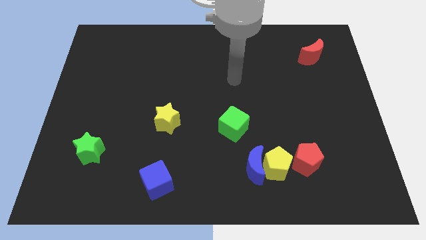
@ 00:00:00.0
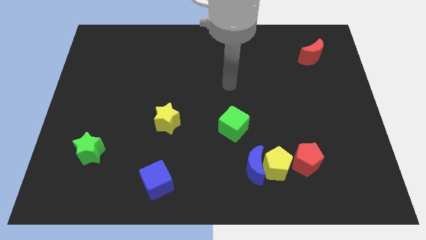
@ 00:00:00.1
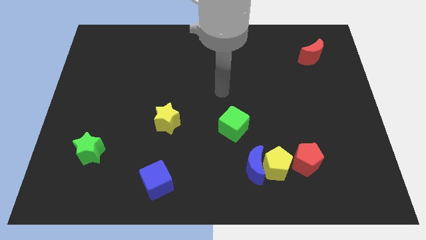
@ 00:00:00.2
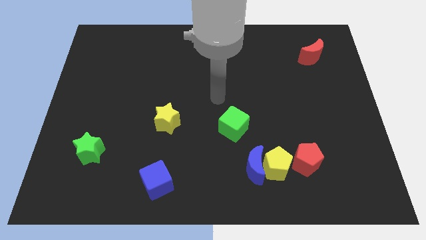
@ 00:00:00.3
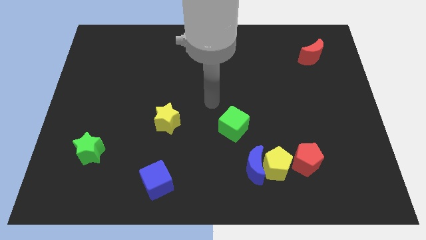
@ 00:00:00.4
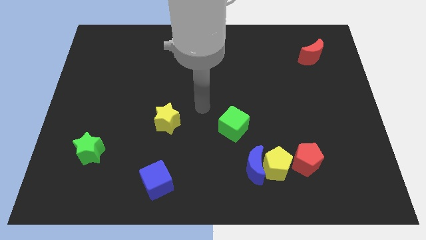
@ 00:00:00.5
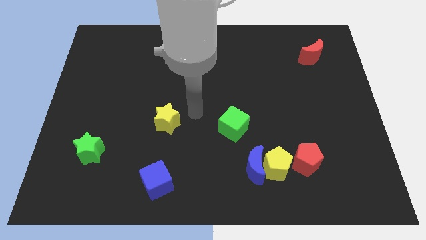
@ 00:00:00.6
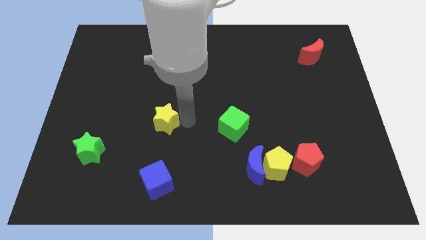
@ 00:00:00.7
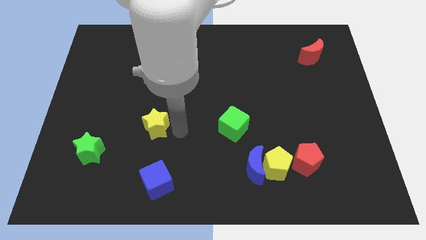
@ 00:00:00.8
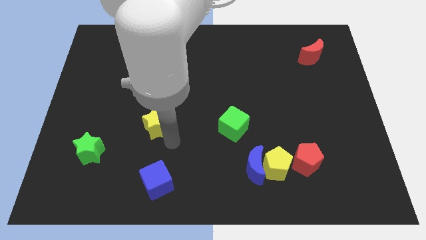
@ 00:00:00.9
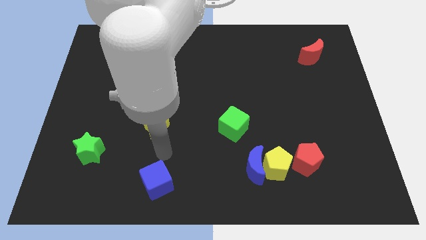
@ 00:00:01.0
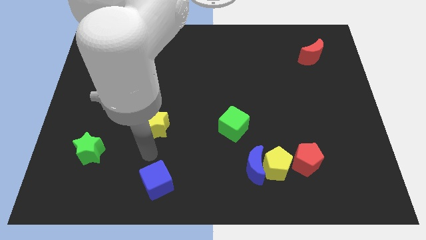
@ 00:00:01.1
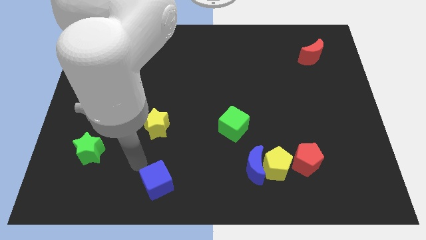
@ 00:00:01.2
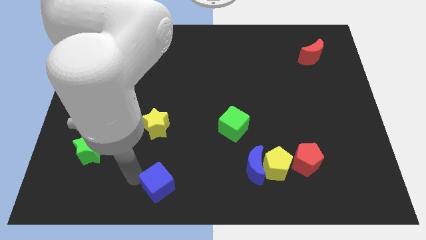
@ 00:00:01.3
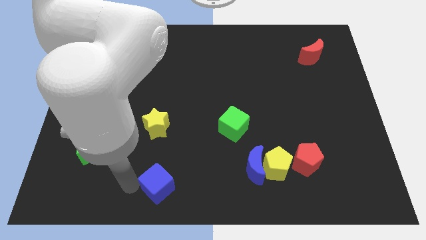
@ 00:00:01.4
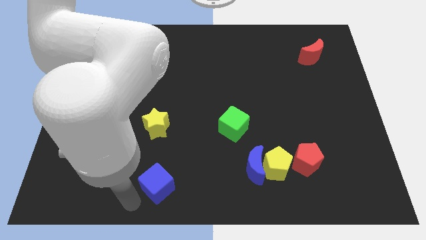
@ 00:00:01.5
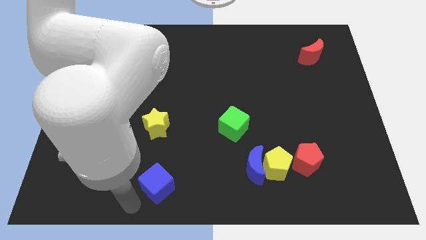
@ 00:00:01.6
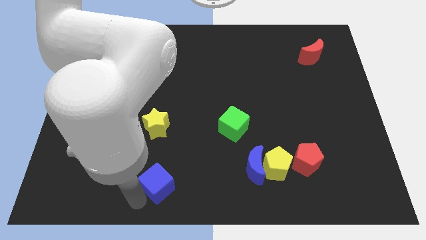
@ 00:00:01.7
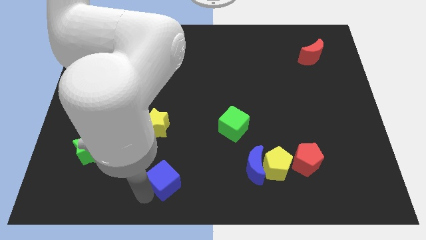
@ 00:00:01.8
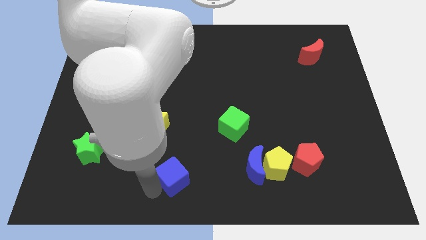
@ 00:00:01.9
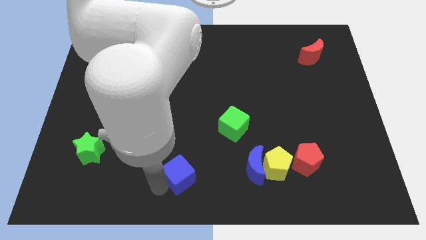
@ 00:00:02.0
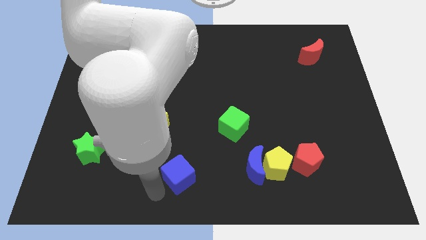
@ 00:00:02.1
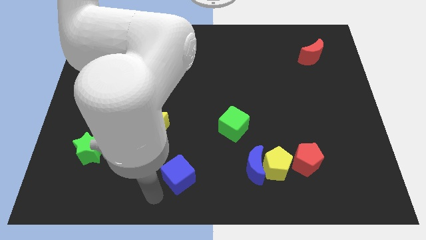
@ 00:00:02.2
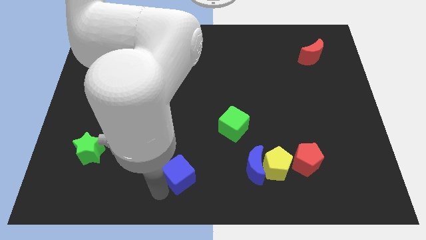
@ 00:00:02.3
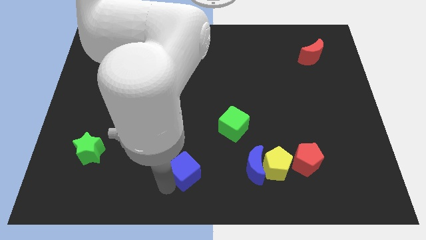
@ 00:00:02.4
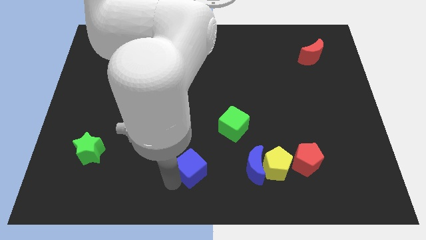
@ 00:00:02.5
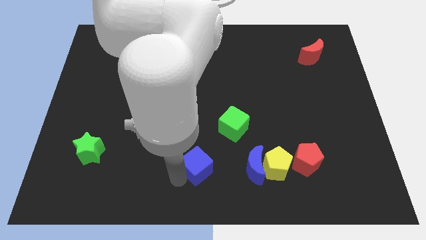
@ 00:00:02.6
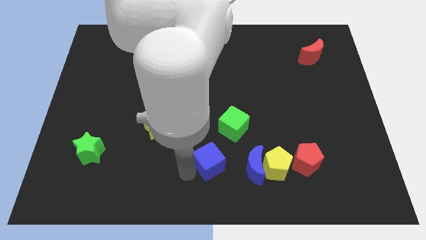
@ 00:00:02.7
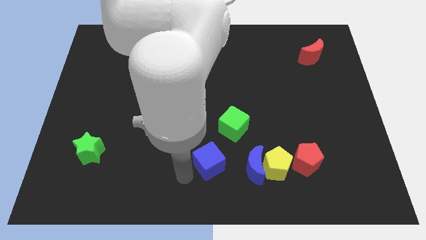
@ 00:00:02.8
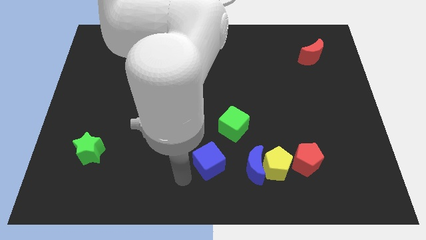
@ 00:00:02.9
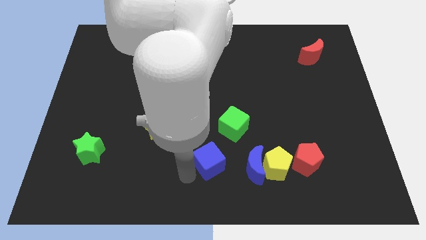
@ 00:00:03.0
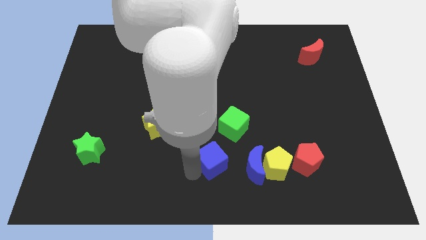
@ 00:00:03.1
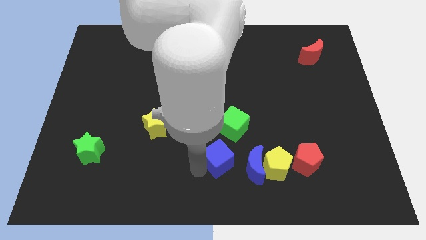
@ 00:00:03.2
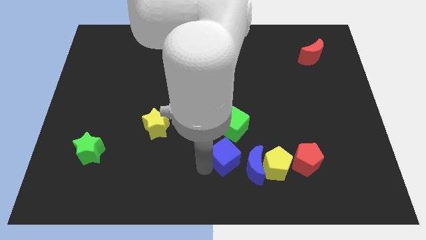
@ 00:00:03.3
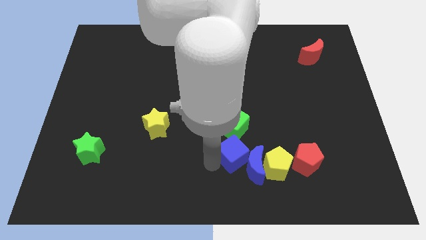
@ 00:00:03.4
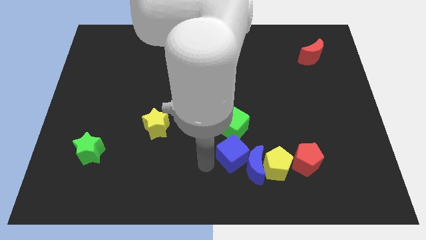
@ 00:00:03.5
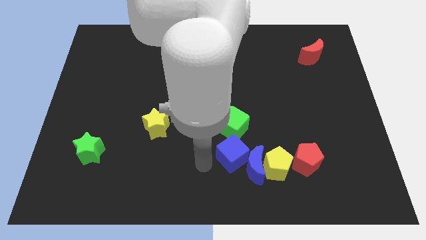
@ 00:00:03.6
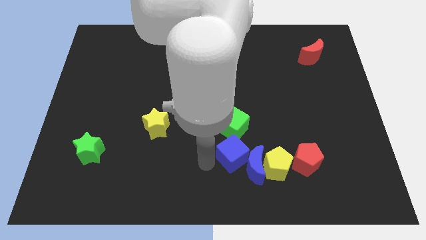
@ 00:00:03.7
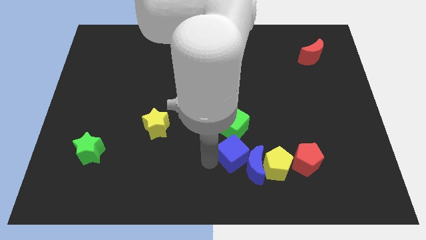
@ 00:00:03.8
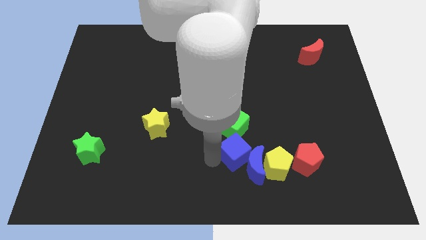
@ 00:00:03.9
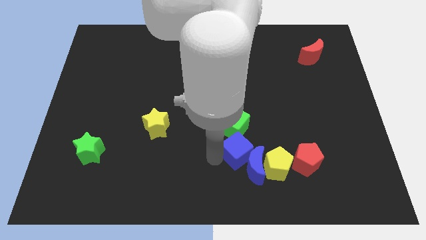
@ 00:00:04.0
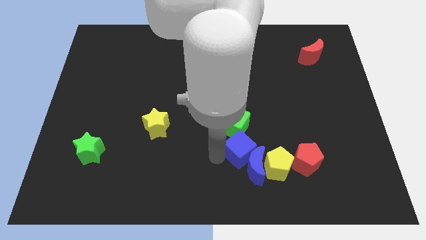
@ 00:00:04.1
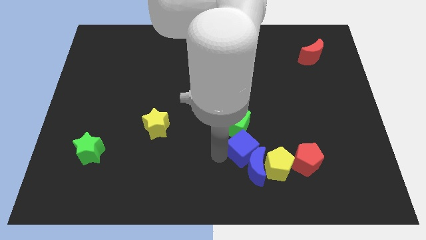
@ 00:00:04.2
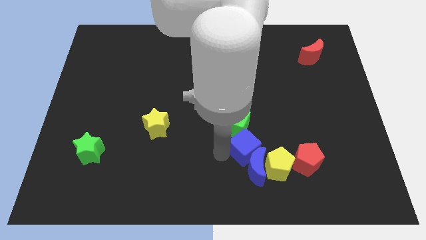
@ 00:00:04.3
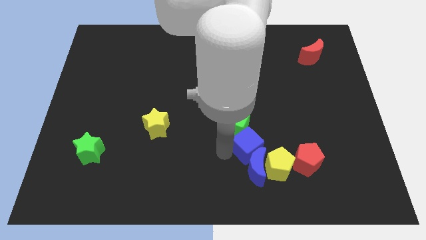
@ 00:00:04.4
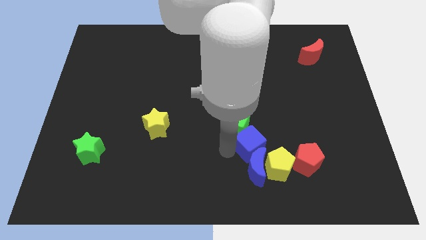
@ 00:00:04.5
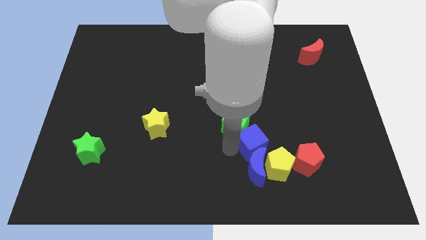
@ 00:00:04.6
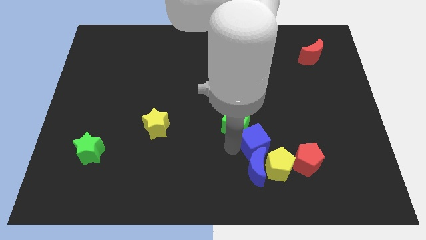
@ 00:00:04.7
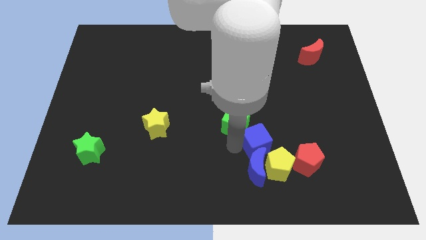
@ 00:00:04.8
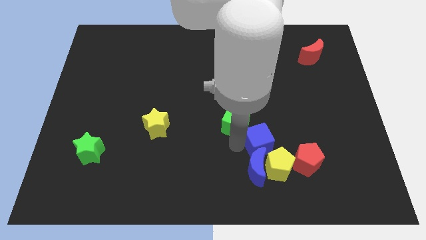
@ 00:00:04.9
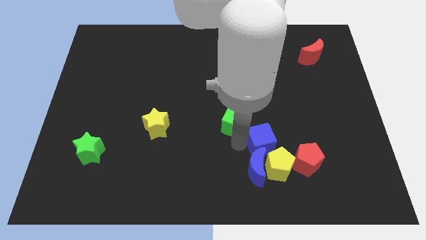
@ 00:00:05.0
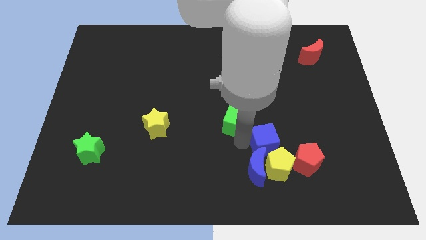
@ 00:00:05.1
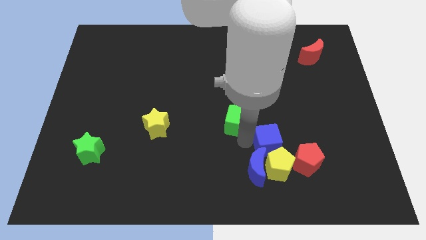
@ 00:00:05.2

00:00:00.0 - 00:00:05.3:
move the blue cube to the yellow pentagon

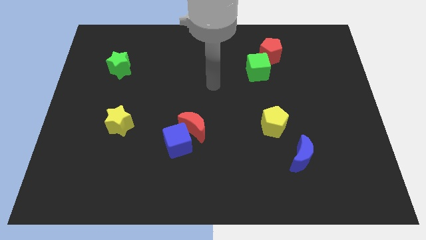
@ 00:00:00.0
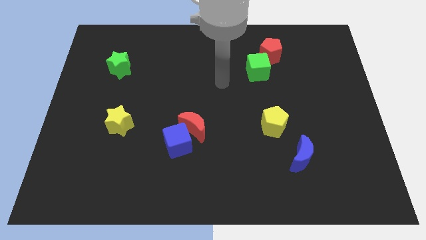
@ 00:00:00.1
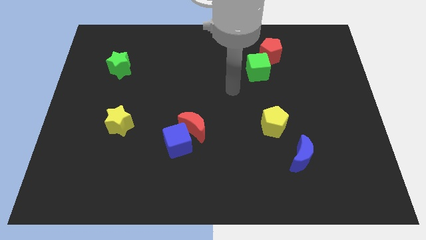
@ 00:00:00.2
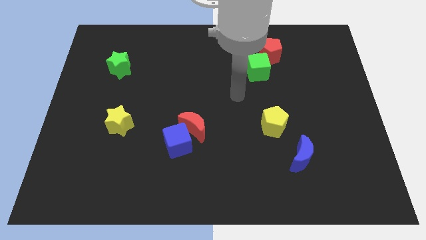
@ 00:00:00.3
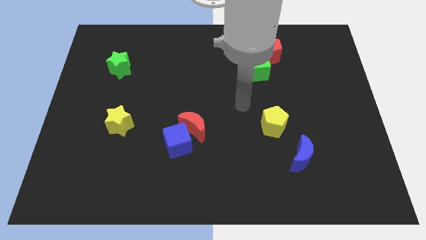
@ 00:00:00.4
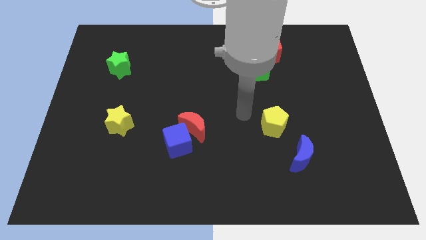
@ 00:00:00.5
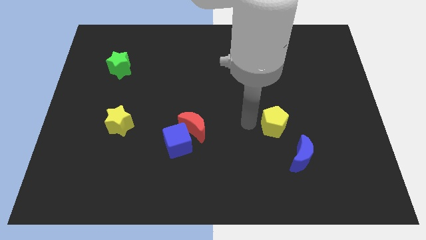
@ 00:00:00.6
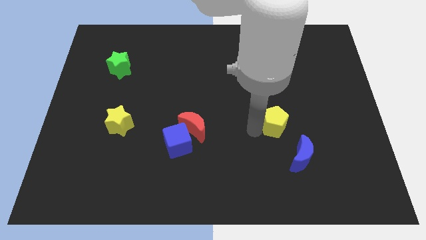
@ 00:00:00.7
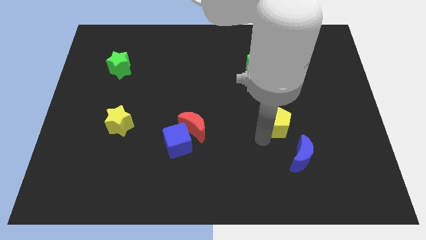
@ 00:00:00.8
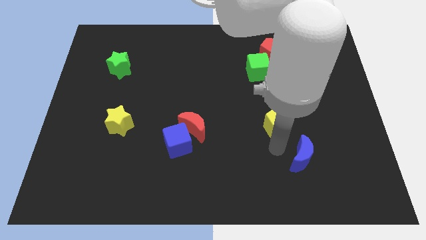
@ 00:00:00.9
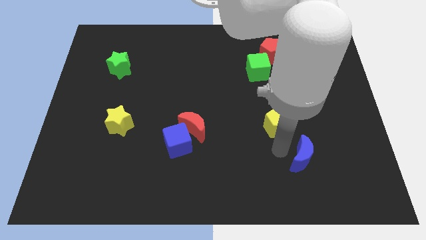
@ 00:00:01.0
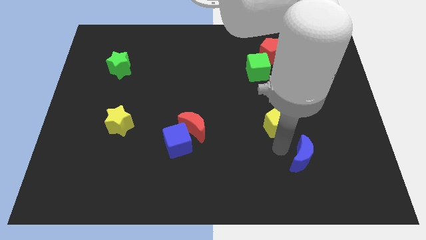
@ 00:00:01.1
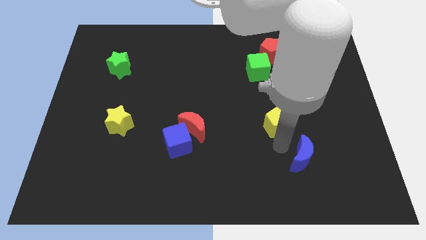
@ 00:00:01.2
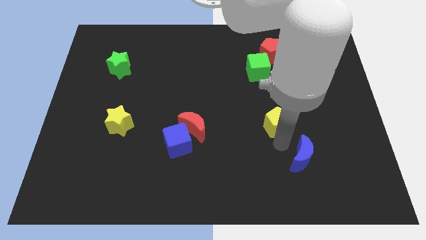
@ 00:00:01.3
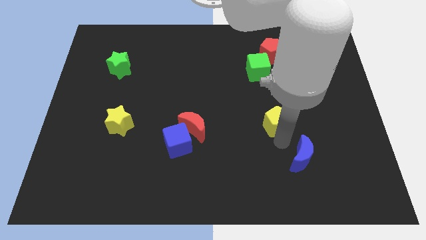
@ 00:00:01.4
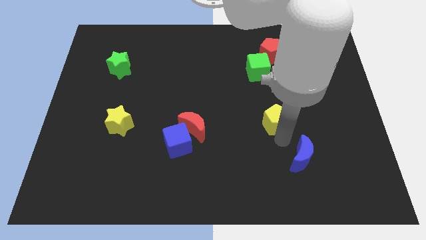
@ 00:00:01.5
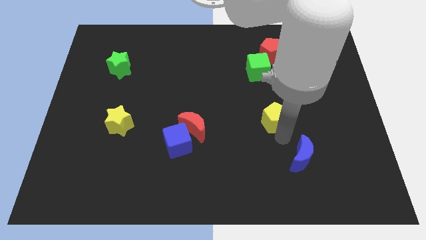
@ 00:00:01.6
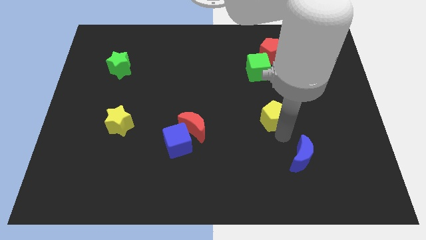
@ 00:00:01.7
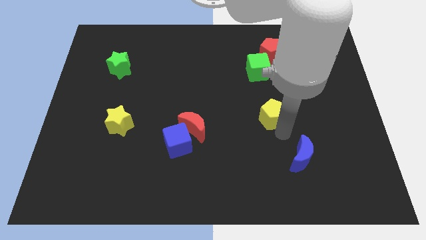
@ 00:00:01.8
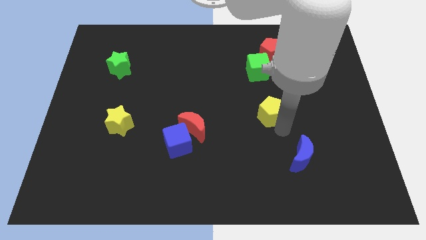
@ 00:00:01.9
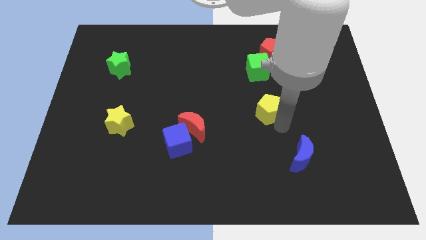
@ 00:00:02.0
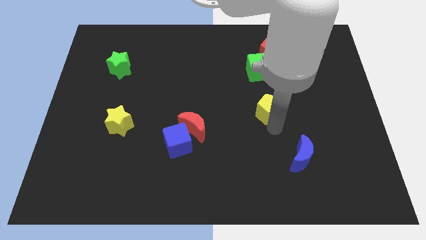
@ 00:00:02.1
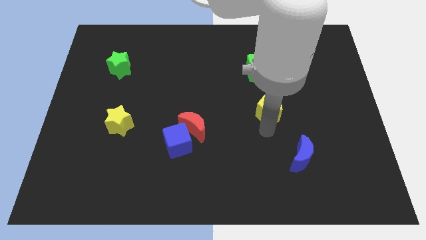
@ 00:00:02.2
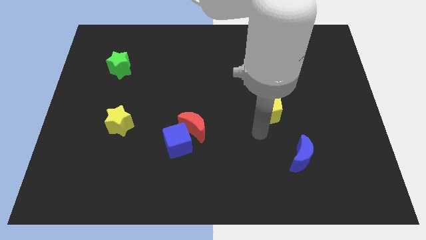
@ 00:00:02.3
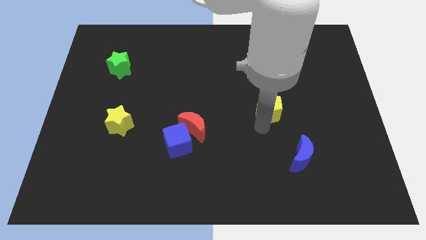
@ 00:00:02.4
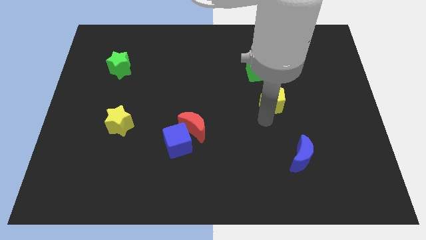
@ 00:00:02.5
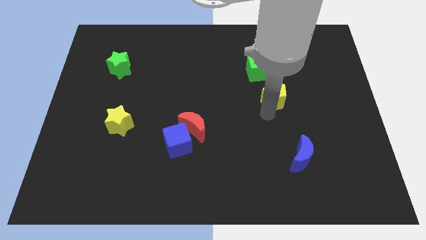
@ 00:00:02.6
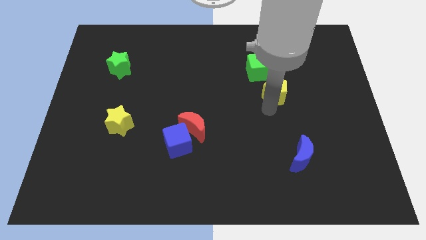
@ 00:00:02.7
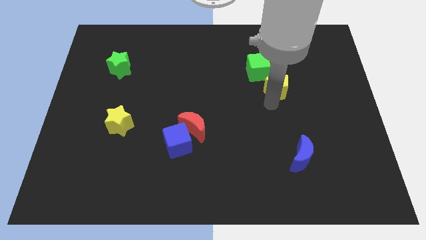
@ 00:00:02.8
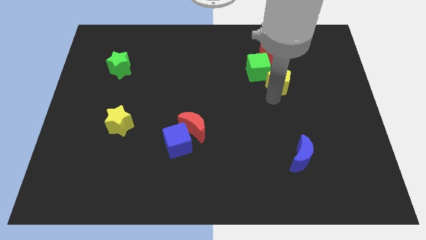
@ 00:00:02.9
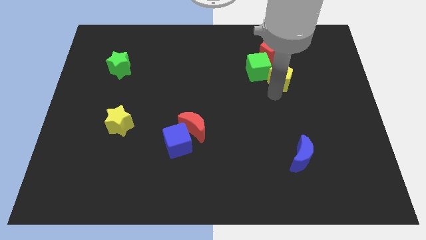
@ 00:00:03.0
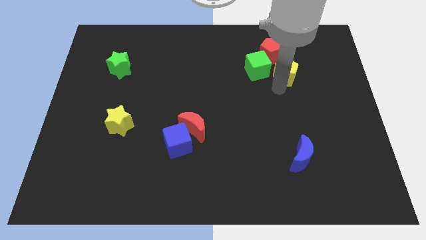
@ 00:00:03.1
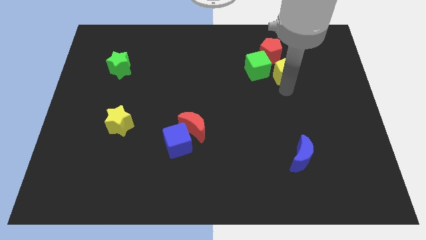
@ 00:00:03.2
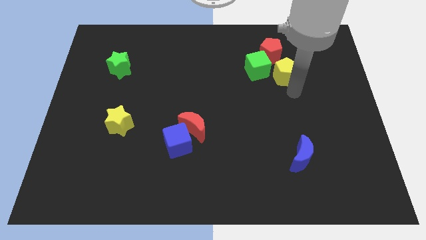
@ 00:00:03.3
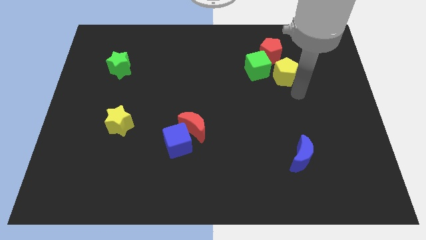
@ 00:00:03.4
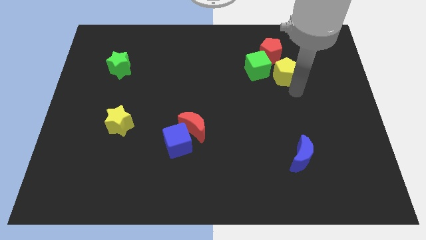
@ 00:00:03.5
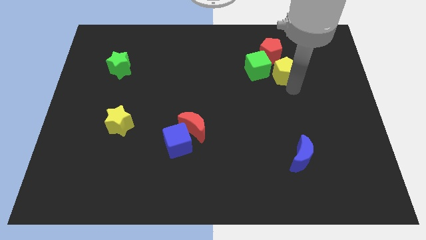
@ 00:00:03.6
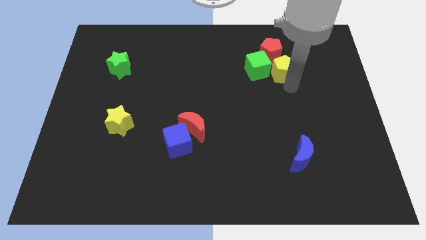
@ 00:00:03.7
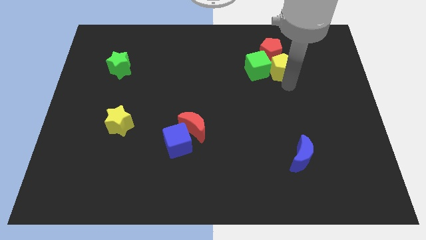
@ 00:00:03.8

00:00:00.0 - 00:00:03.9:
push the yellow pentagon to the red pentagon
